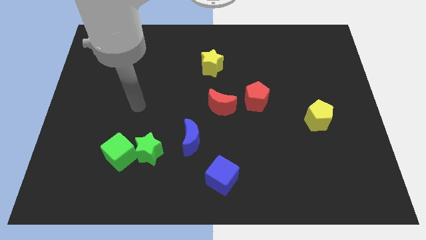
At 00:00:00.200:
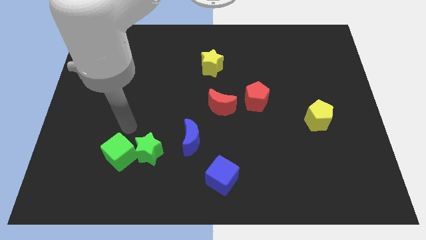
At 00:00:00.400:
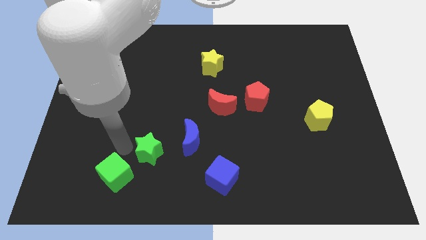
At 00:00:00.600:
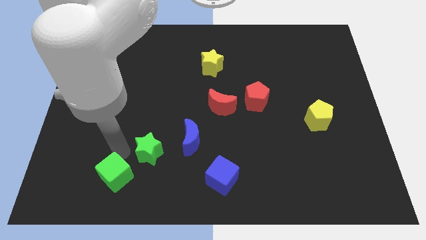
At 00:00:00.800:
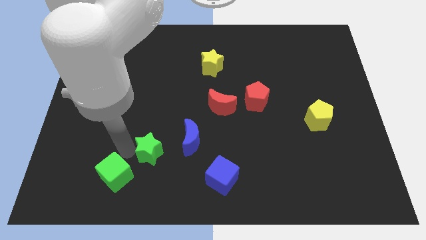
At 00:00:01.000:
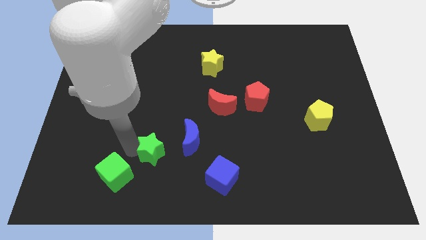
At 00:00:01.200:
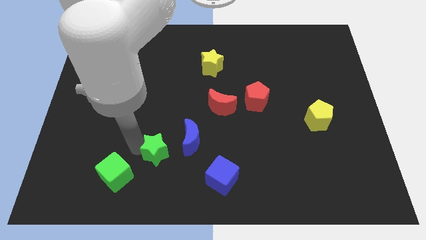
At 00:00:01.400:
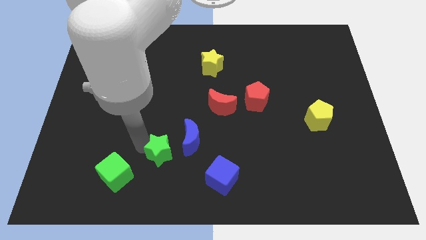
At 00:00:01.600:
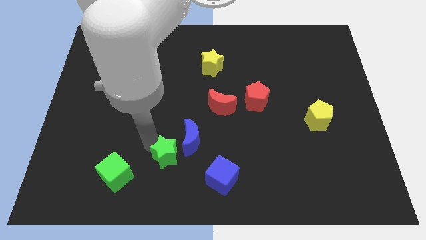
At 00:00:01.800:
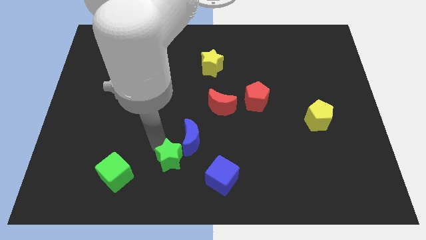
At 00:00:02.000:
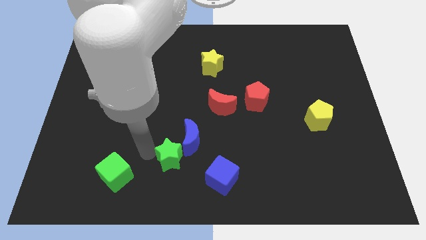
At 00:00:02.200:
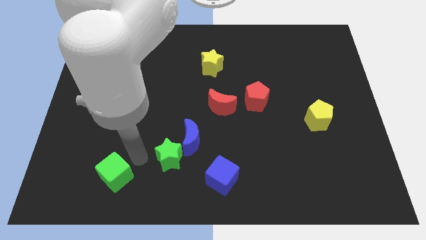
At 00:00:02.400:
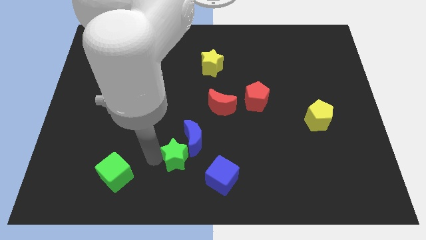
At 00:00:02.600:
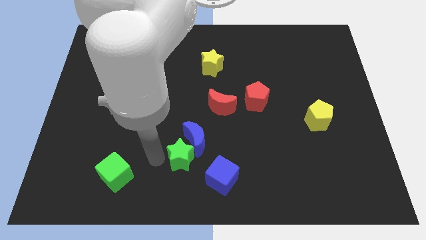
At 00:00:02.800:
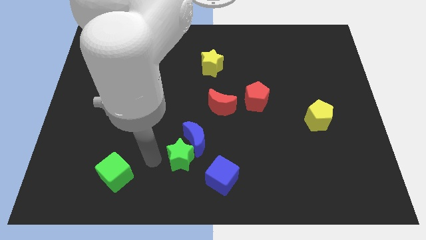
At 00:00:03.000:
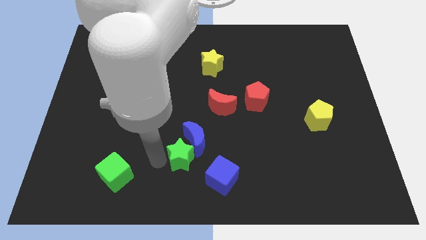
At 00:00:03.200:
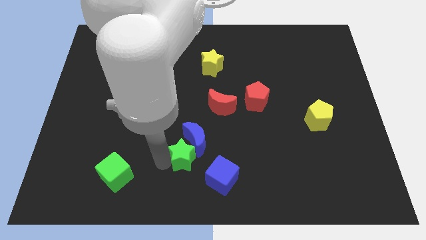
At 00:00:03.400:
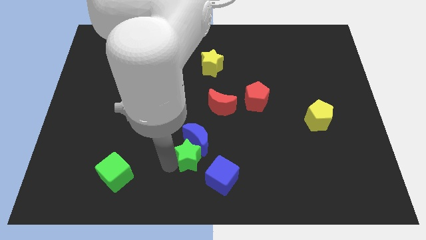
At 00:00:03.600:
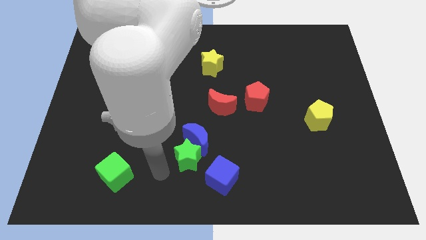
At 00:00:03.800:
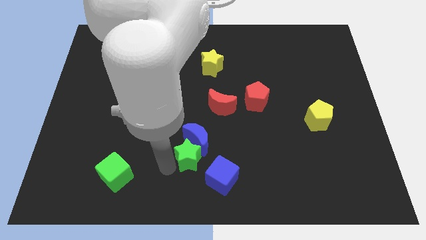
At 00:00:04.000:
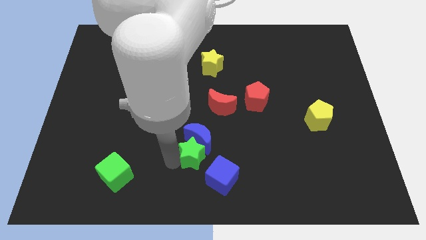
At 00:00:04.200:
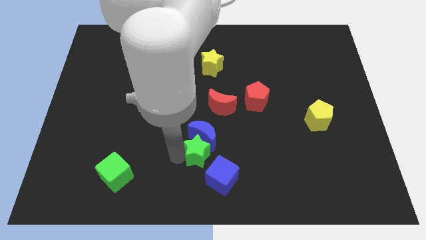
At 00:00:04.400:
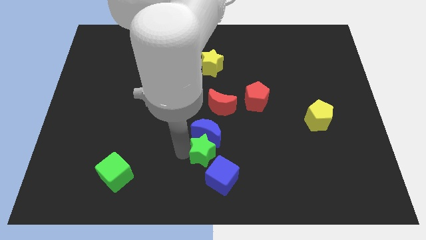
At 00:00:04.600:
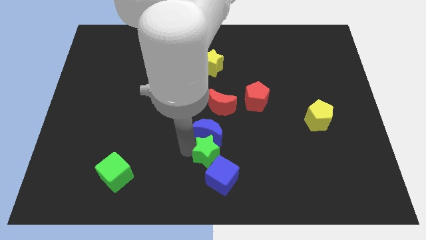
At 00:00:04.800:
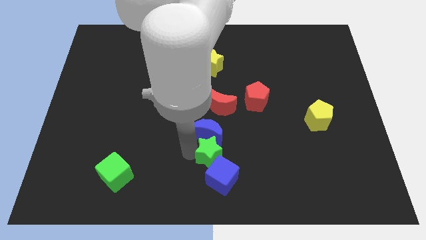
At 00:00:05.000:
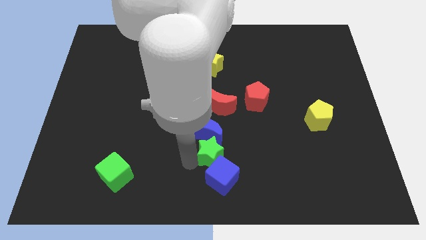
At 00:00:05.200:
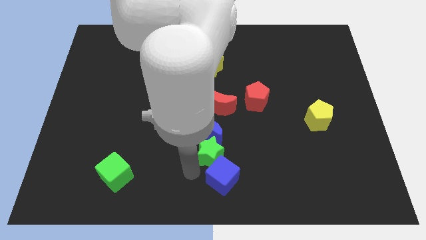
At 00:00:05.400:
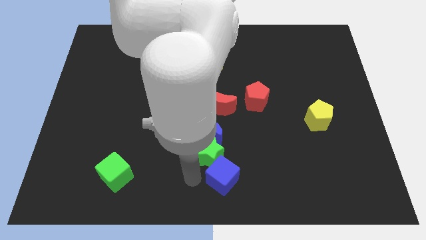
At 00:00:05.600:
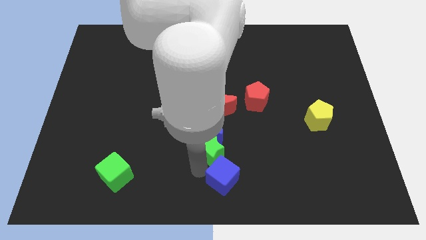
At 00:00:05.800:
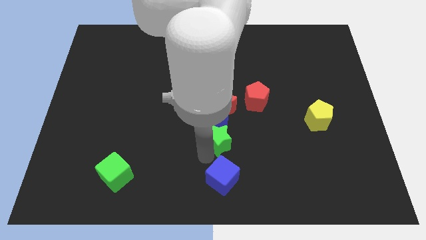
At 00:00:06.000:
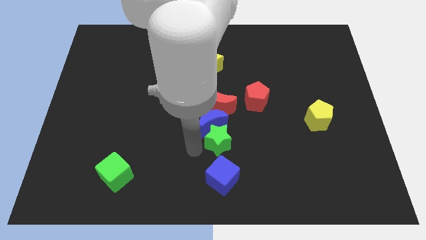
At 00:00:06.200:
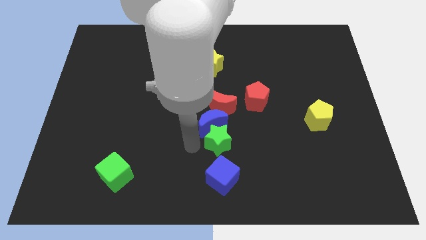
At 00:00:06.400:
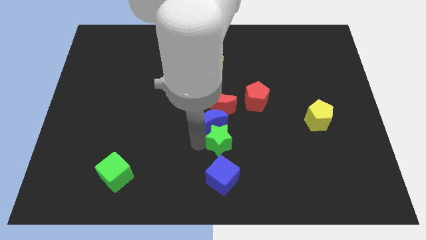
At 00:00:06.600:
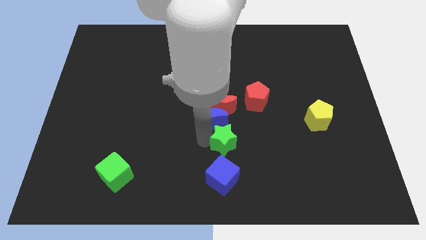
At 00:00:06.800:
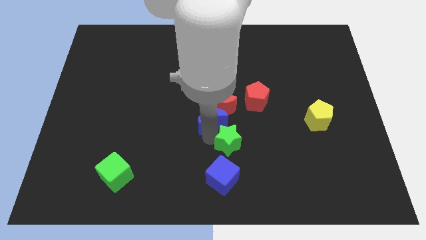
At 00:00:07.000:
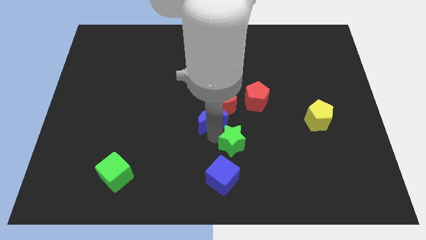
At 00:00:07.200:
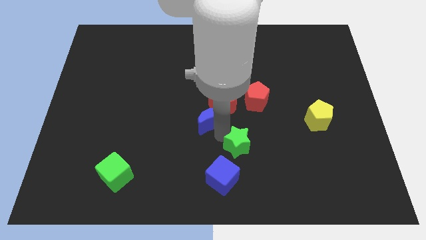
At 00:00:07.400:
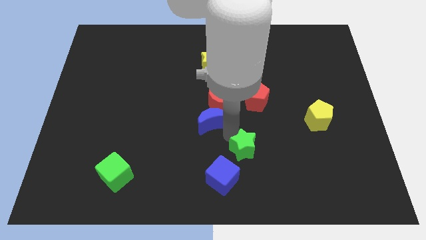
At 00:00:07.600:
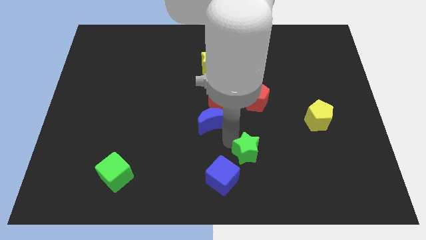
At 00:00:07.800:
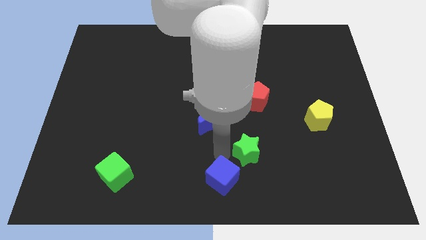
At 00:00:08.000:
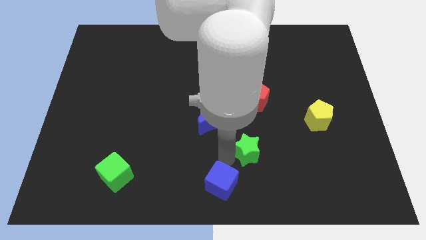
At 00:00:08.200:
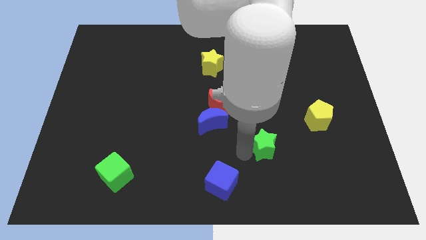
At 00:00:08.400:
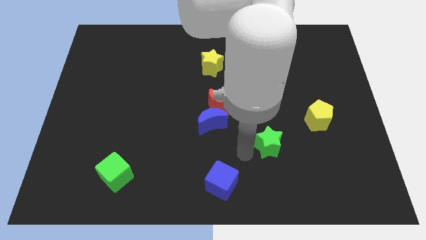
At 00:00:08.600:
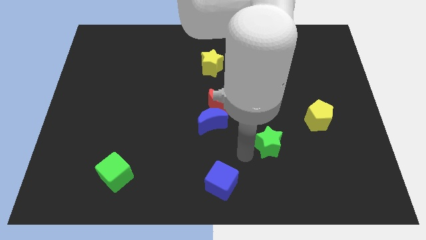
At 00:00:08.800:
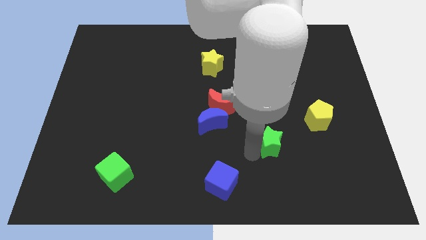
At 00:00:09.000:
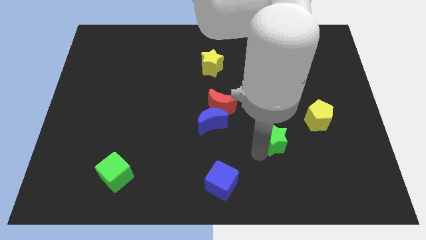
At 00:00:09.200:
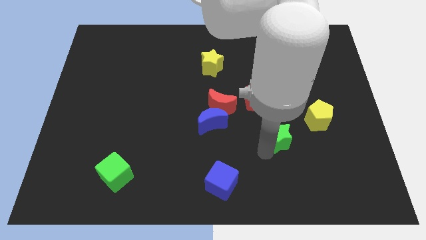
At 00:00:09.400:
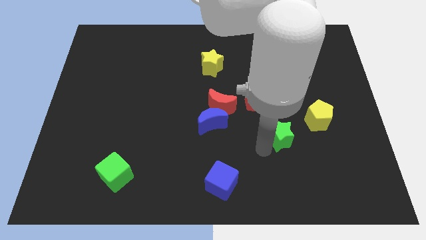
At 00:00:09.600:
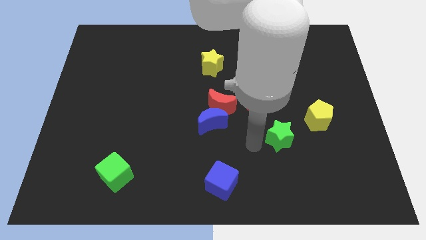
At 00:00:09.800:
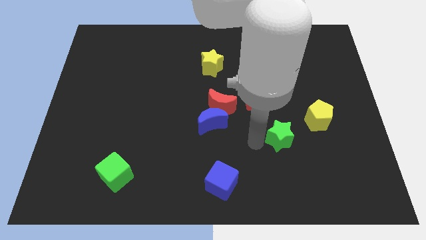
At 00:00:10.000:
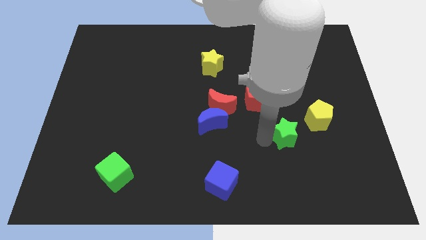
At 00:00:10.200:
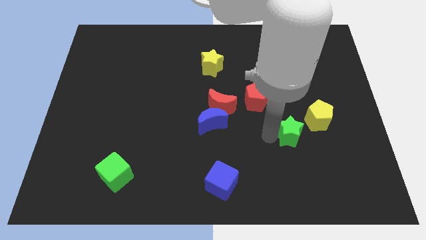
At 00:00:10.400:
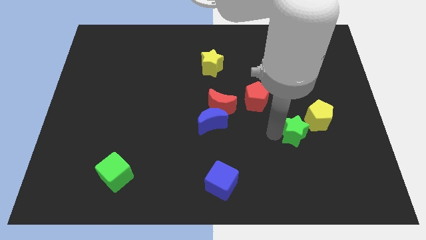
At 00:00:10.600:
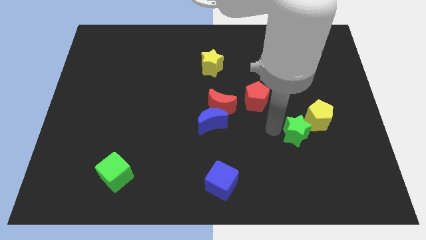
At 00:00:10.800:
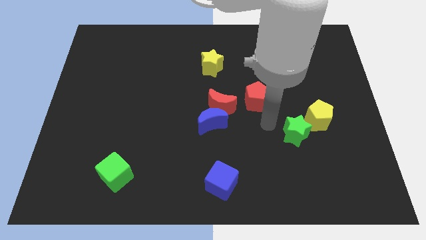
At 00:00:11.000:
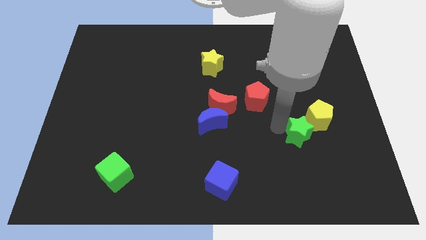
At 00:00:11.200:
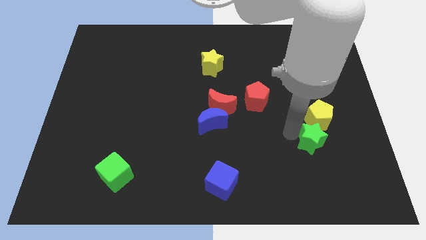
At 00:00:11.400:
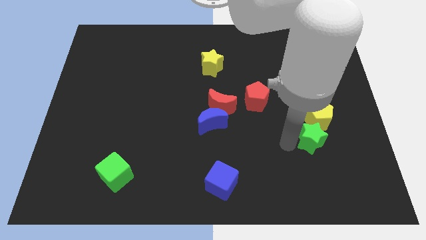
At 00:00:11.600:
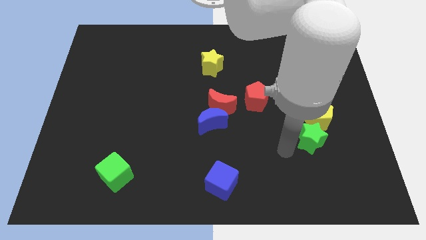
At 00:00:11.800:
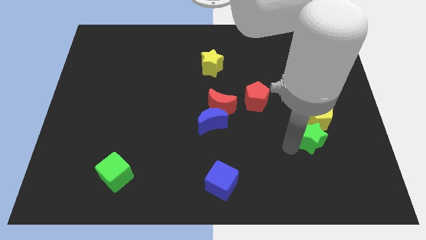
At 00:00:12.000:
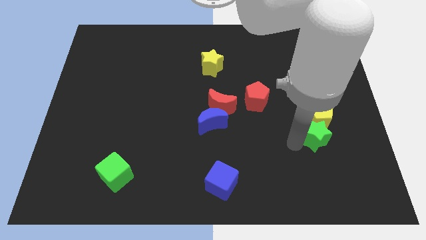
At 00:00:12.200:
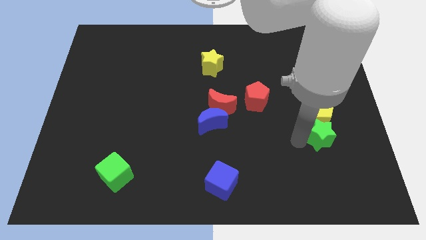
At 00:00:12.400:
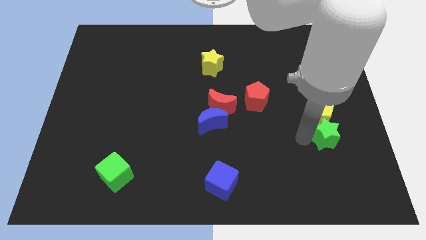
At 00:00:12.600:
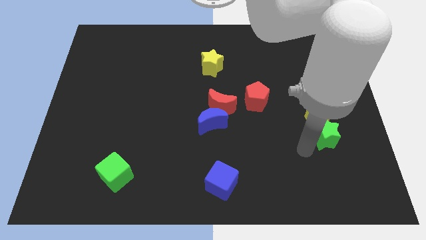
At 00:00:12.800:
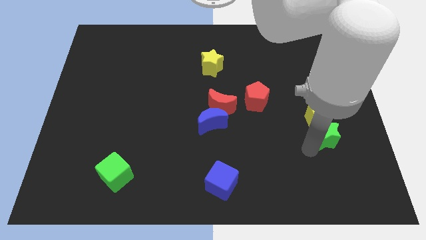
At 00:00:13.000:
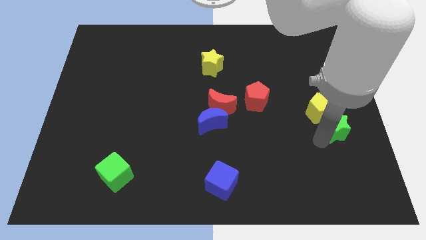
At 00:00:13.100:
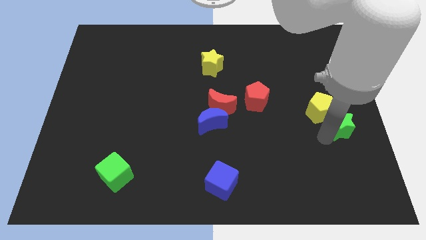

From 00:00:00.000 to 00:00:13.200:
slide the green star to the right side of the board
